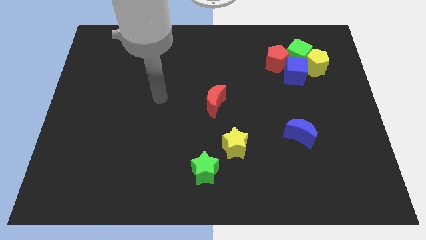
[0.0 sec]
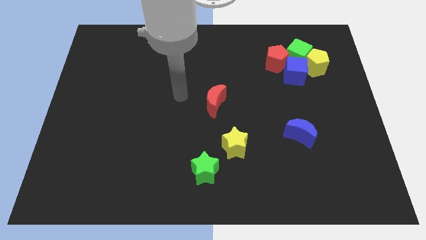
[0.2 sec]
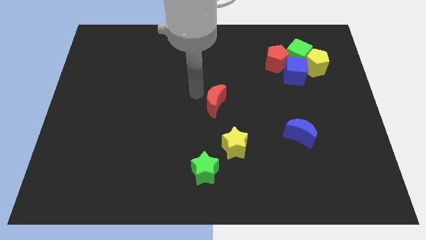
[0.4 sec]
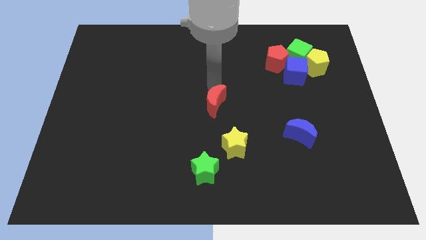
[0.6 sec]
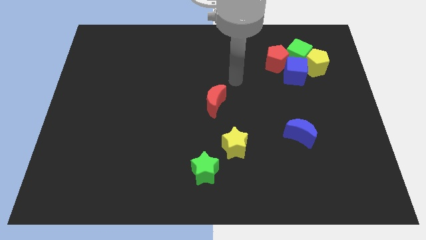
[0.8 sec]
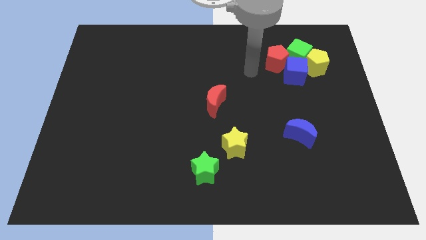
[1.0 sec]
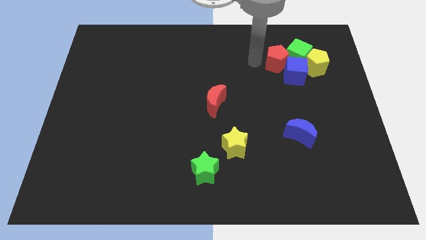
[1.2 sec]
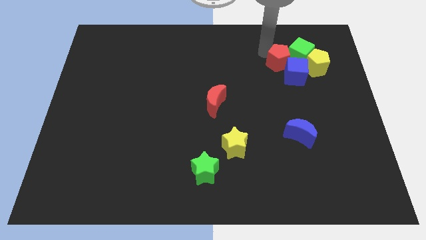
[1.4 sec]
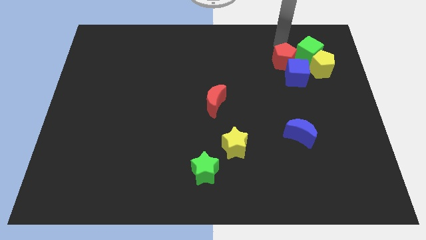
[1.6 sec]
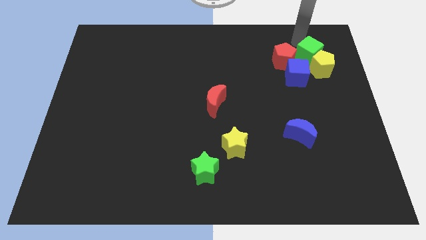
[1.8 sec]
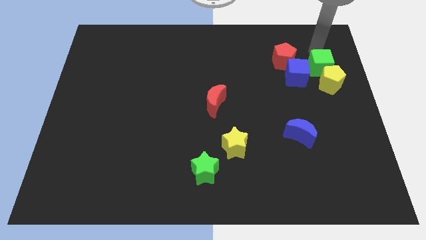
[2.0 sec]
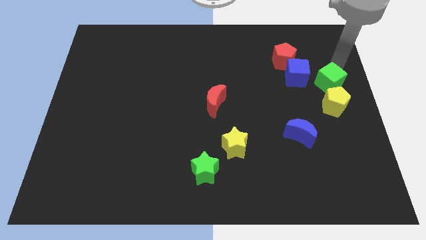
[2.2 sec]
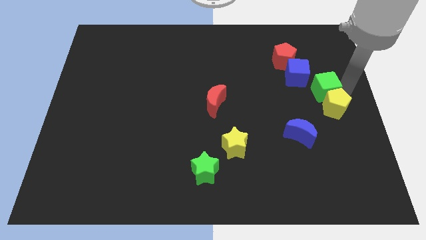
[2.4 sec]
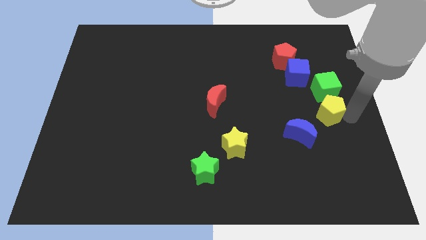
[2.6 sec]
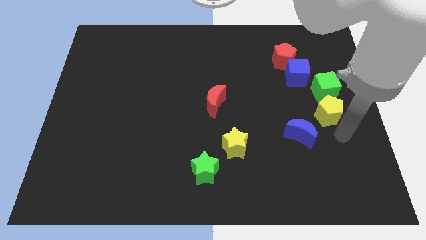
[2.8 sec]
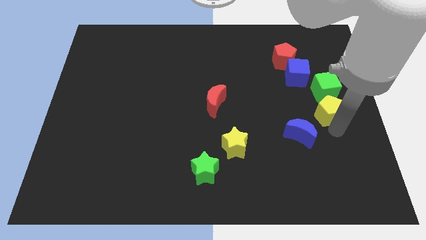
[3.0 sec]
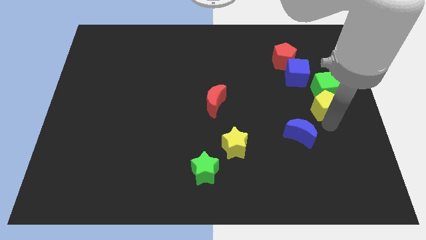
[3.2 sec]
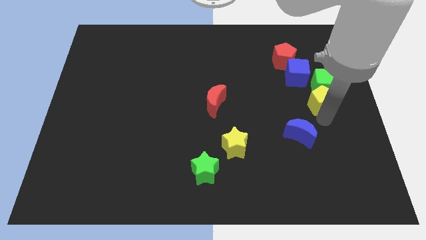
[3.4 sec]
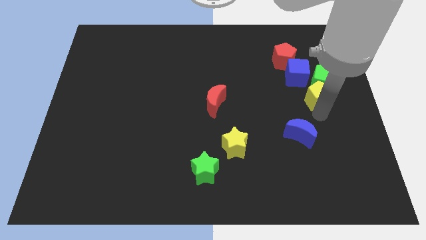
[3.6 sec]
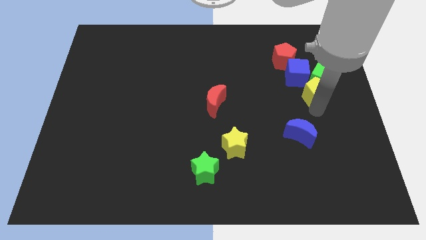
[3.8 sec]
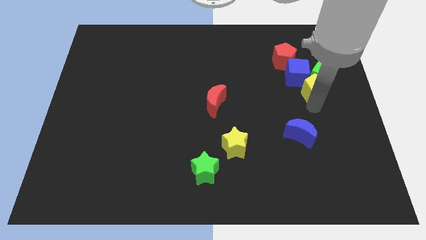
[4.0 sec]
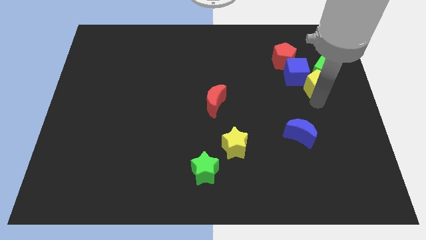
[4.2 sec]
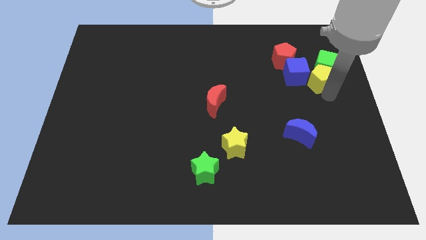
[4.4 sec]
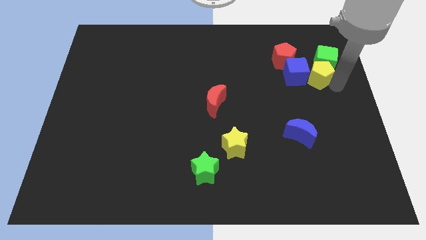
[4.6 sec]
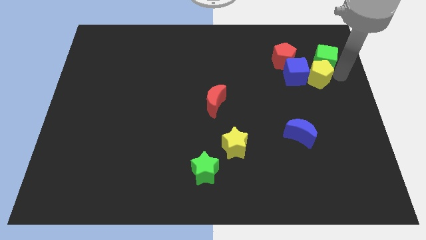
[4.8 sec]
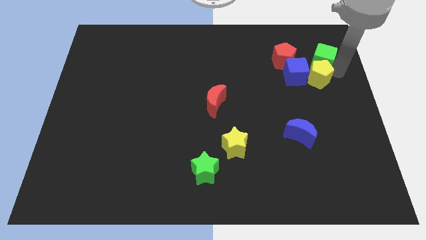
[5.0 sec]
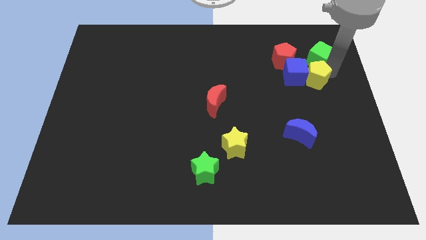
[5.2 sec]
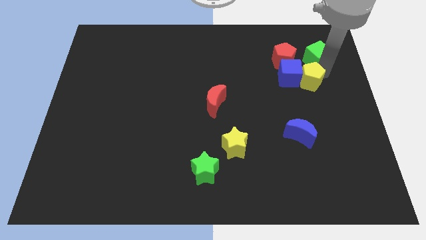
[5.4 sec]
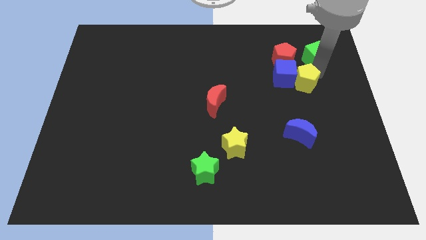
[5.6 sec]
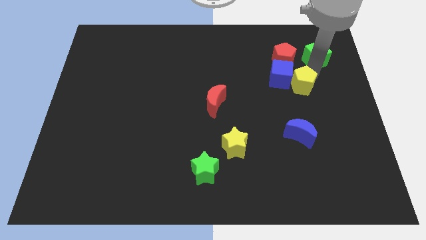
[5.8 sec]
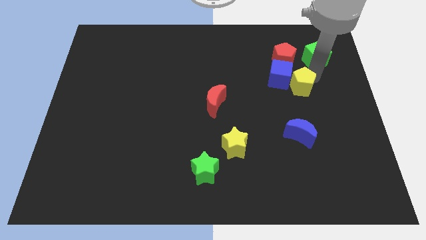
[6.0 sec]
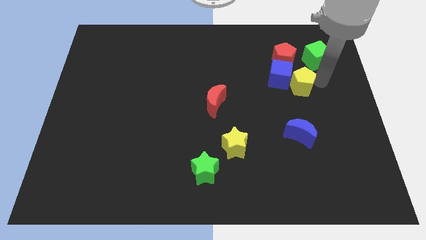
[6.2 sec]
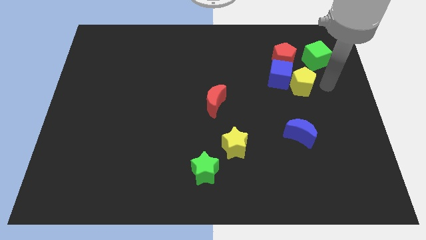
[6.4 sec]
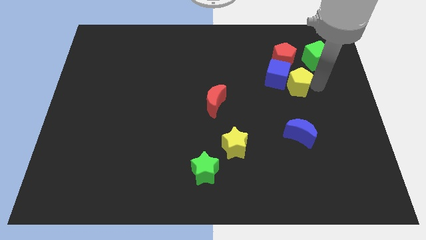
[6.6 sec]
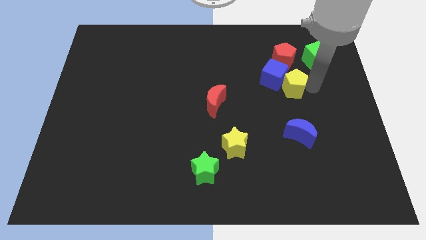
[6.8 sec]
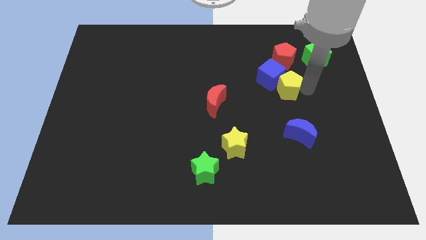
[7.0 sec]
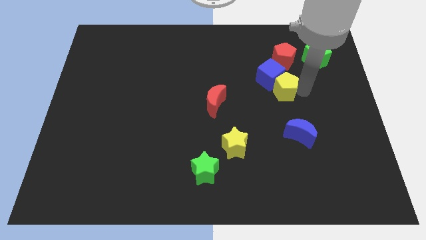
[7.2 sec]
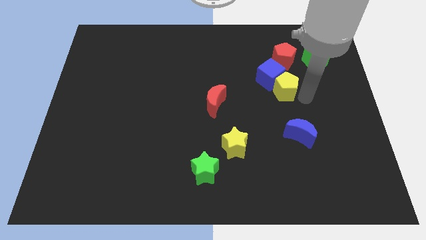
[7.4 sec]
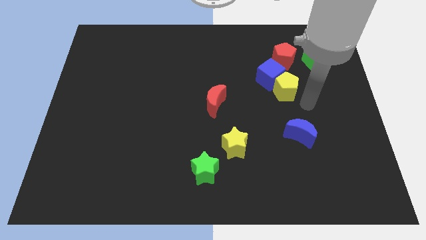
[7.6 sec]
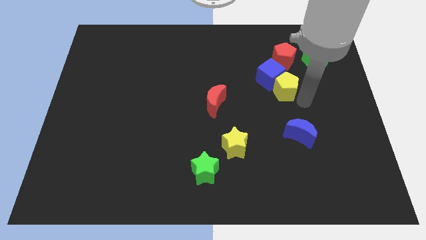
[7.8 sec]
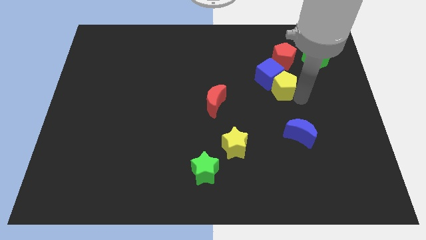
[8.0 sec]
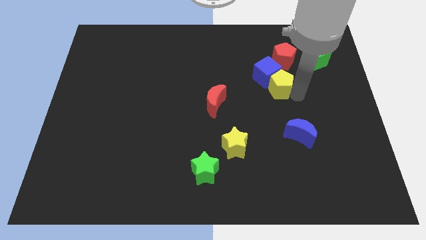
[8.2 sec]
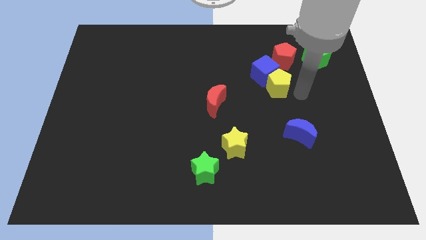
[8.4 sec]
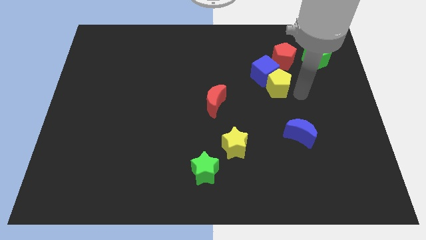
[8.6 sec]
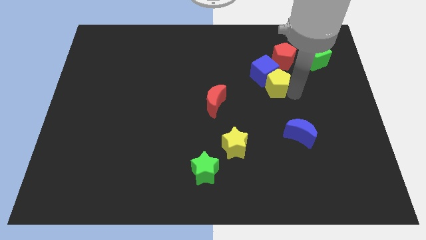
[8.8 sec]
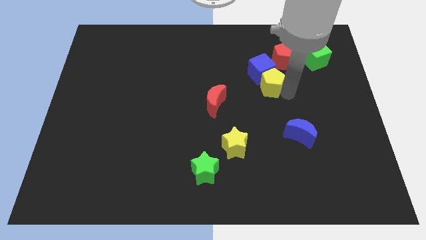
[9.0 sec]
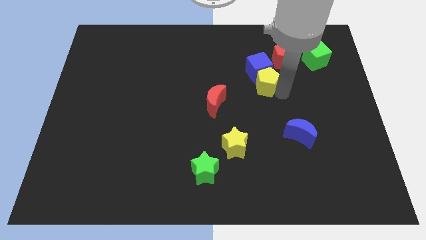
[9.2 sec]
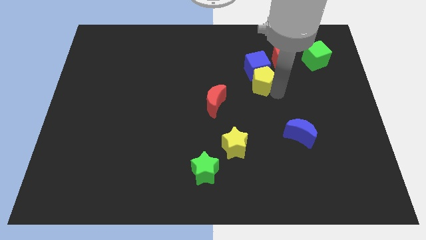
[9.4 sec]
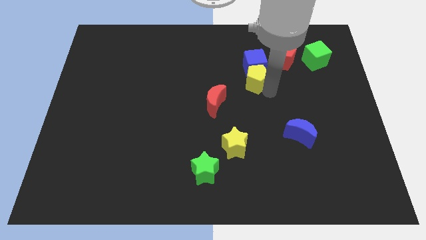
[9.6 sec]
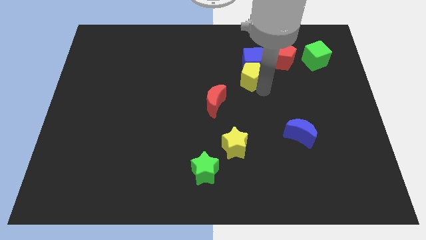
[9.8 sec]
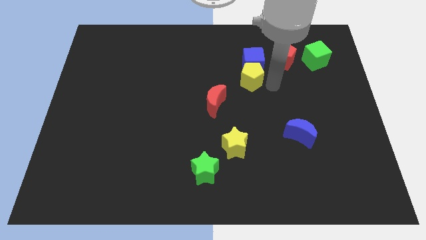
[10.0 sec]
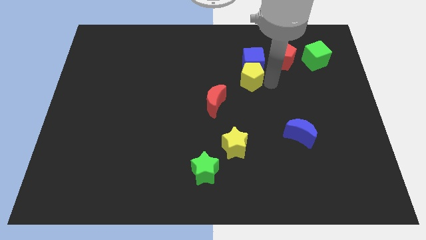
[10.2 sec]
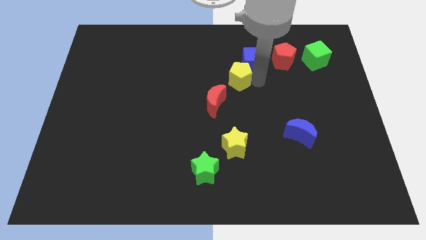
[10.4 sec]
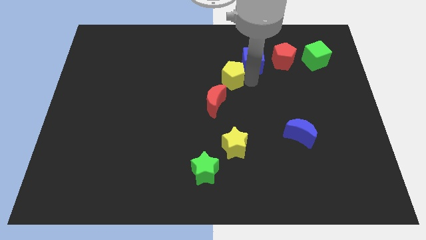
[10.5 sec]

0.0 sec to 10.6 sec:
slide the yellow pentagon to the left

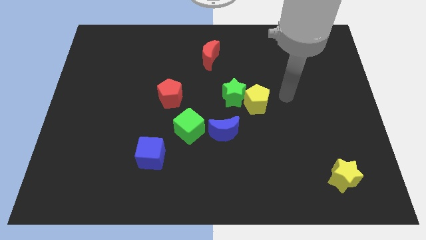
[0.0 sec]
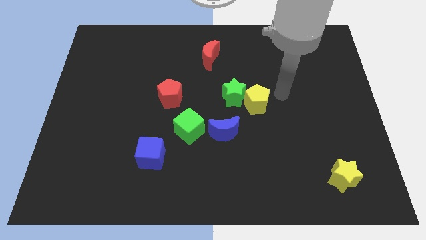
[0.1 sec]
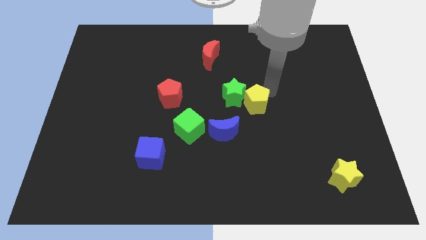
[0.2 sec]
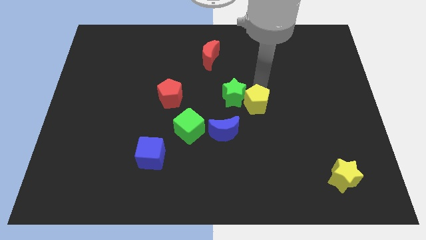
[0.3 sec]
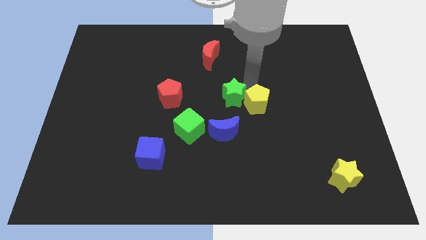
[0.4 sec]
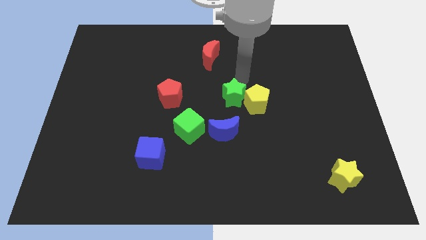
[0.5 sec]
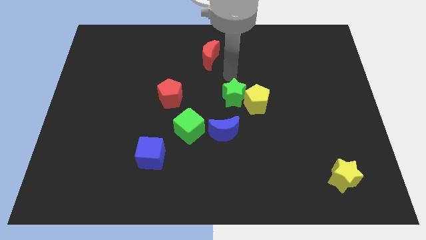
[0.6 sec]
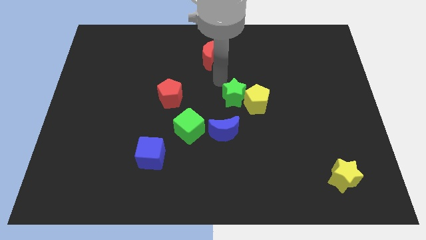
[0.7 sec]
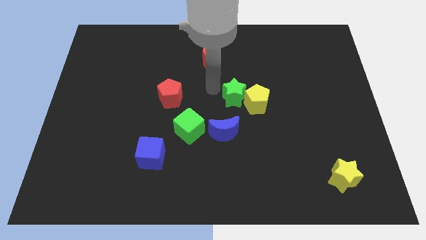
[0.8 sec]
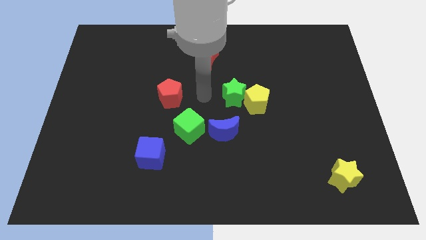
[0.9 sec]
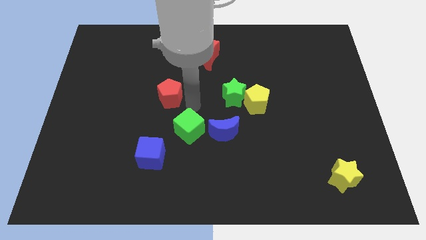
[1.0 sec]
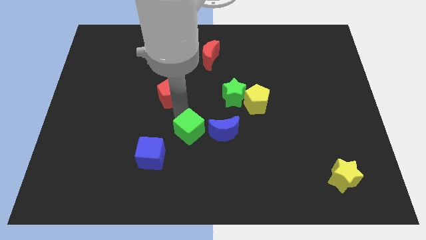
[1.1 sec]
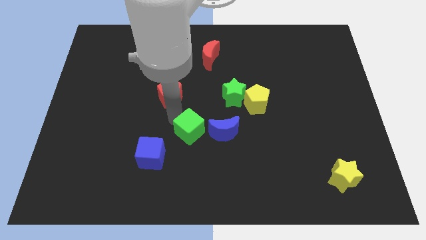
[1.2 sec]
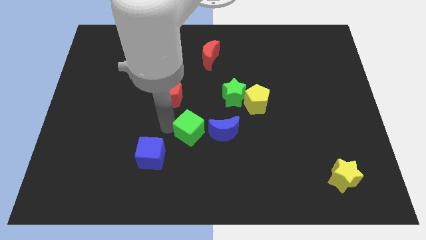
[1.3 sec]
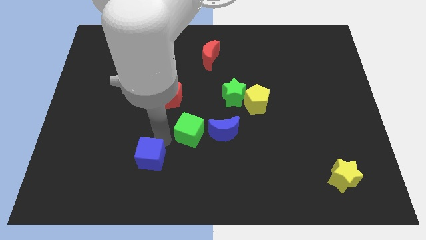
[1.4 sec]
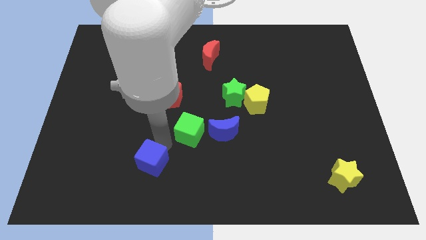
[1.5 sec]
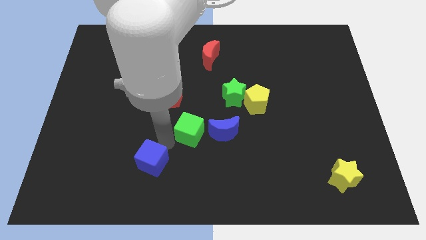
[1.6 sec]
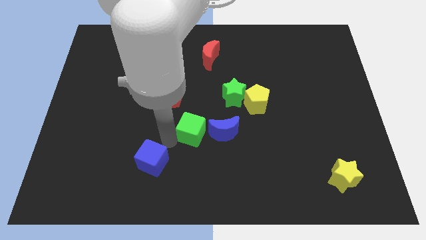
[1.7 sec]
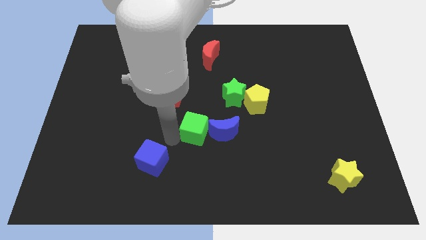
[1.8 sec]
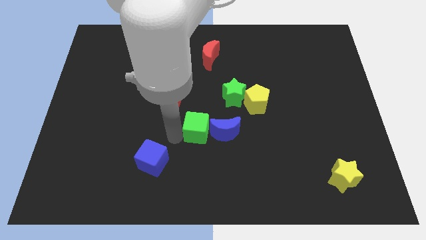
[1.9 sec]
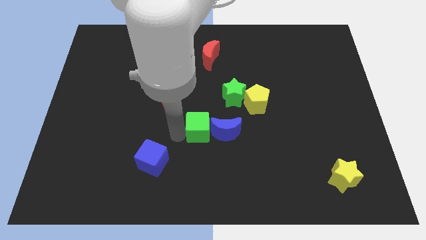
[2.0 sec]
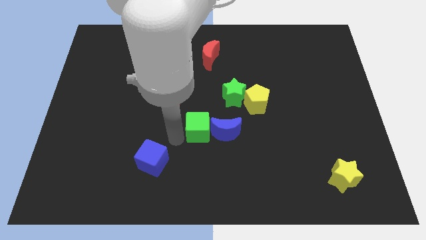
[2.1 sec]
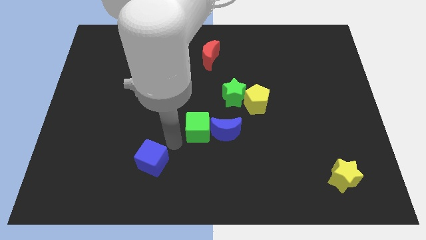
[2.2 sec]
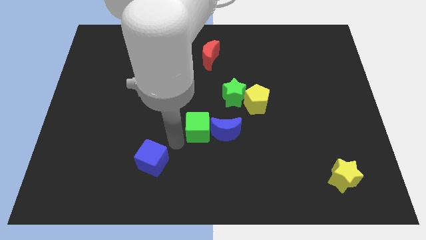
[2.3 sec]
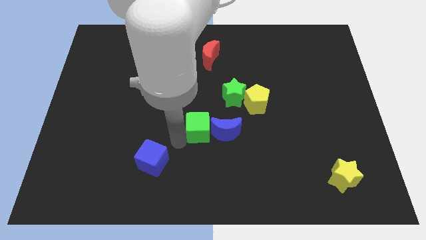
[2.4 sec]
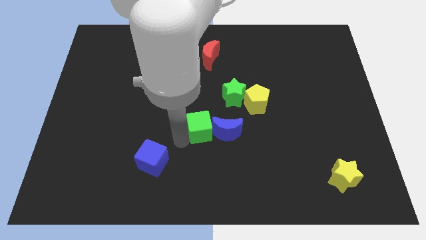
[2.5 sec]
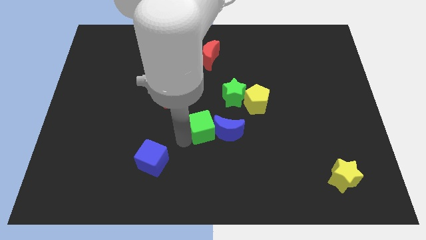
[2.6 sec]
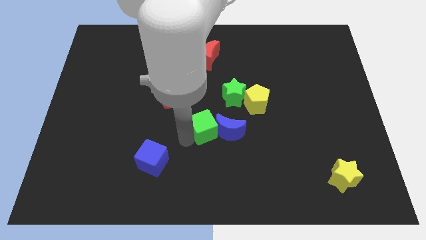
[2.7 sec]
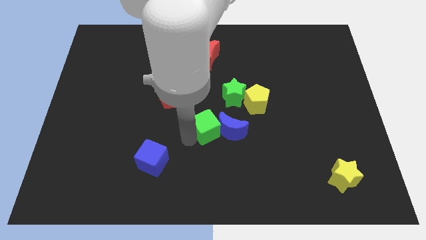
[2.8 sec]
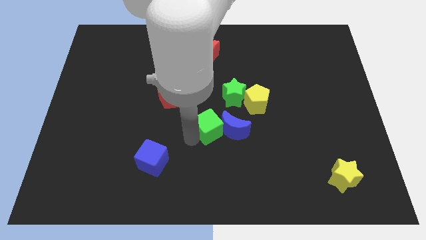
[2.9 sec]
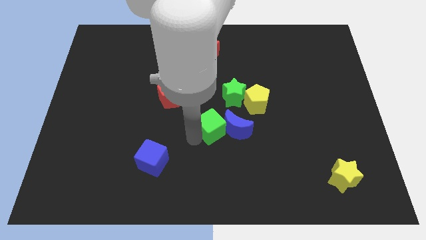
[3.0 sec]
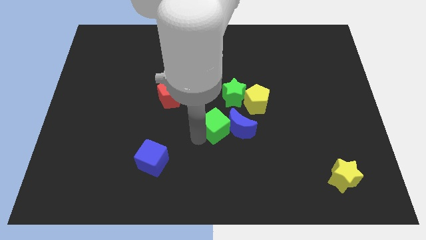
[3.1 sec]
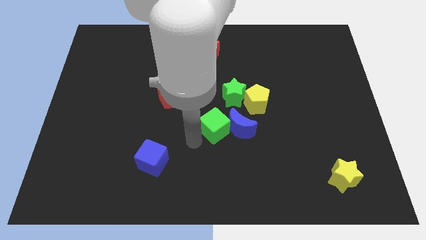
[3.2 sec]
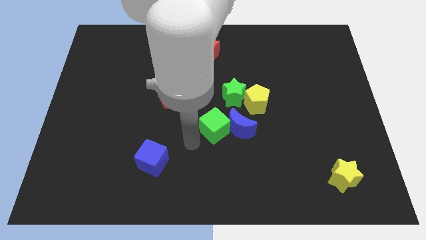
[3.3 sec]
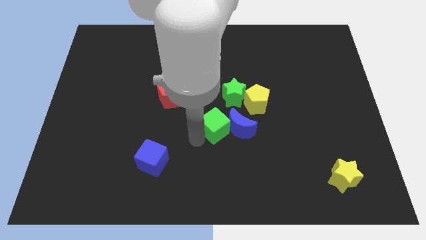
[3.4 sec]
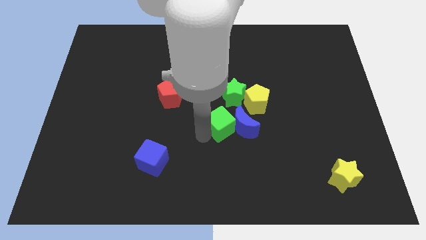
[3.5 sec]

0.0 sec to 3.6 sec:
slightly move the green cube to the right
